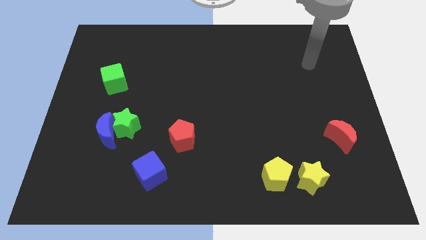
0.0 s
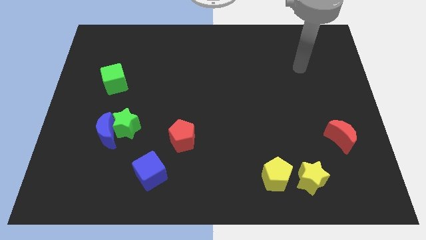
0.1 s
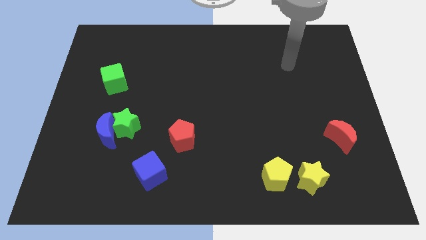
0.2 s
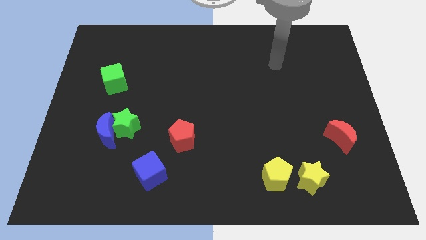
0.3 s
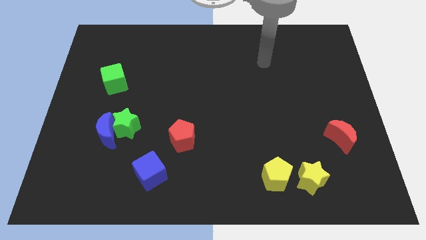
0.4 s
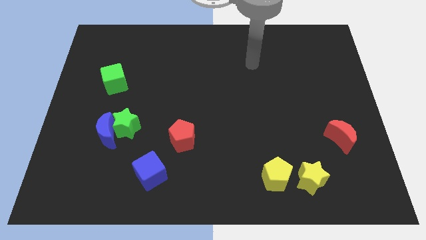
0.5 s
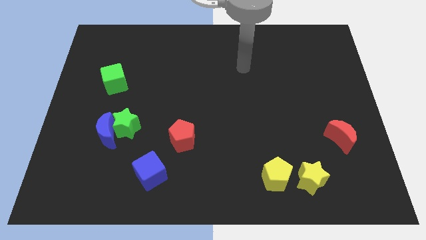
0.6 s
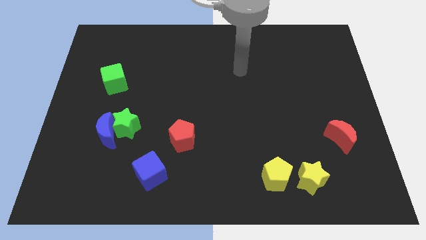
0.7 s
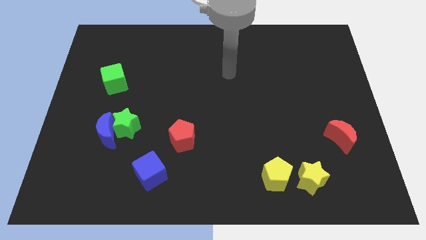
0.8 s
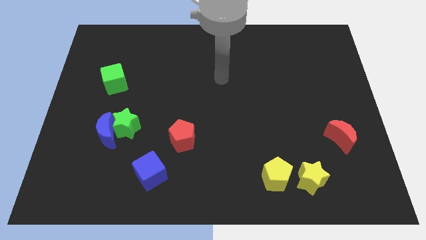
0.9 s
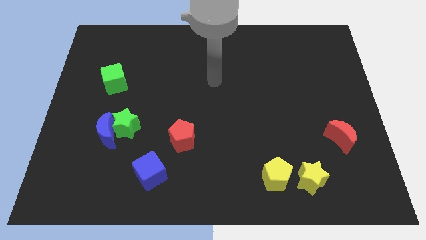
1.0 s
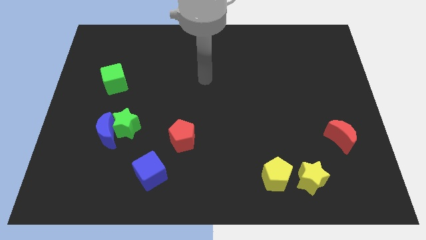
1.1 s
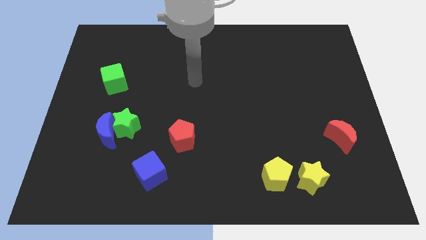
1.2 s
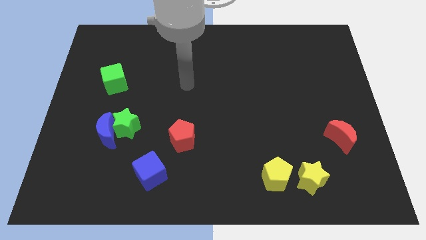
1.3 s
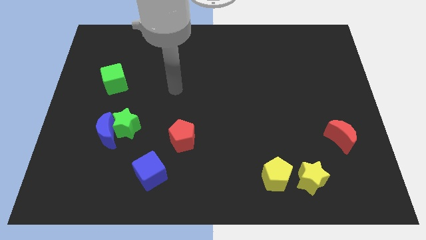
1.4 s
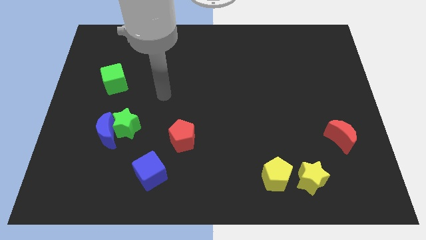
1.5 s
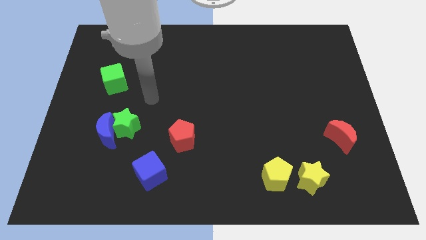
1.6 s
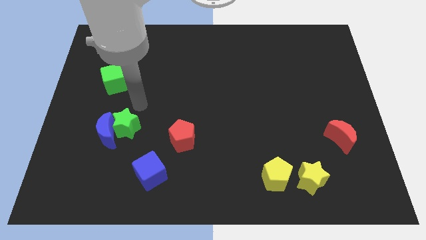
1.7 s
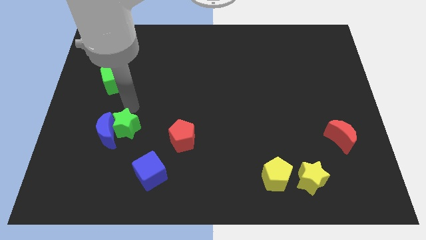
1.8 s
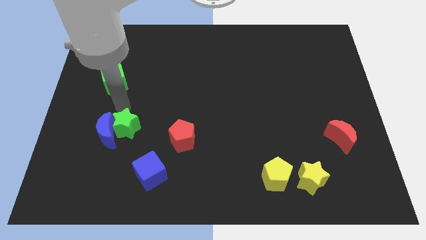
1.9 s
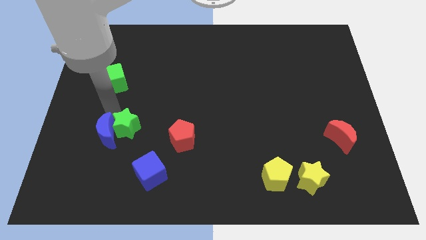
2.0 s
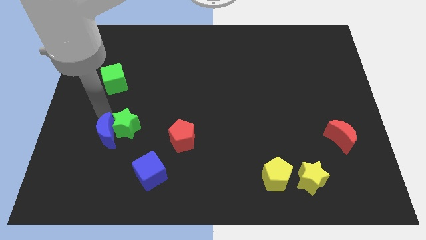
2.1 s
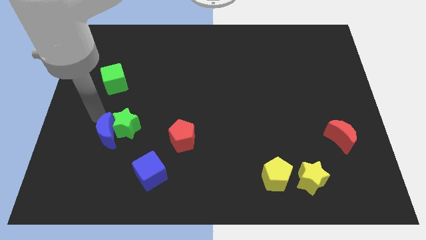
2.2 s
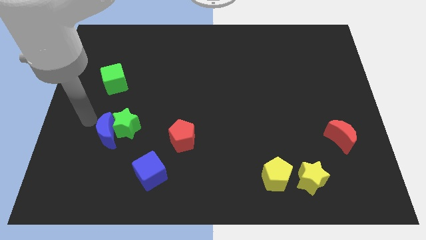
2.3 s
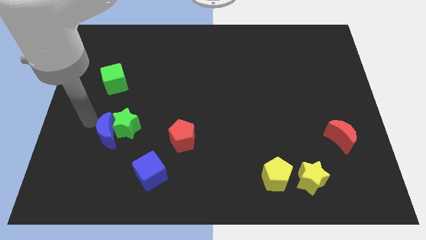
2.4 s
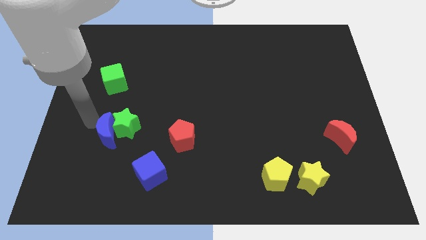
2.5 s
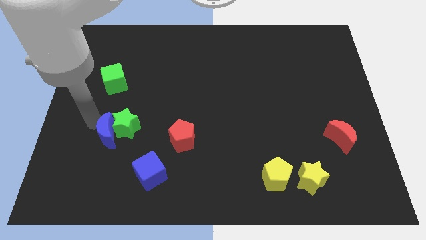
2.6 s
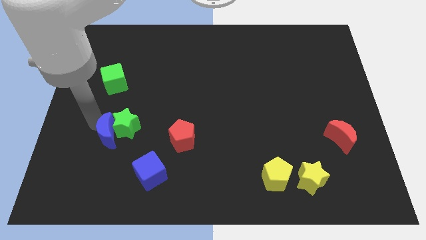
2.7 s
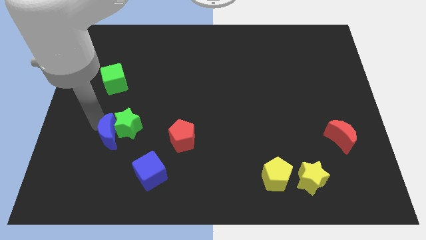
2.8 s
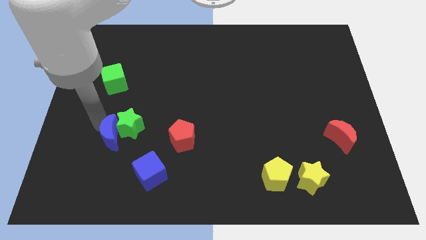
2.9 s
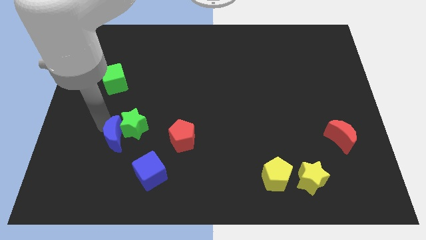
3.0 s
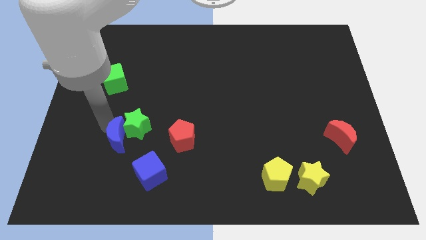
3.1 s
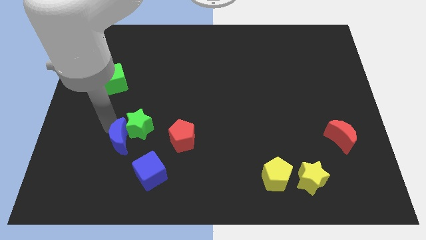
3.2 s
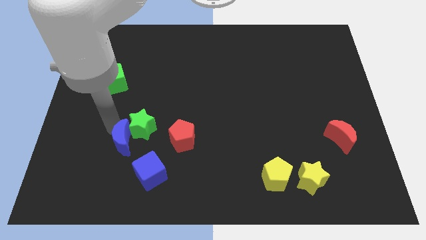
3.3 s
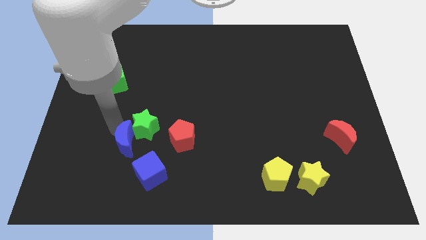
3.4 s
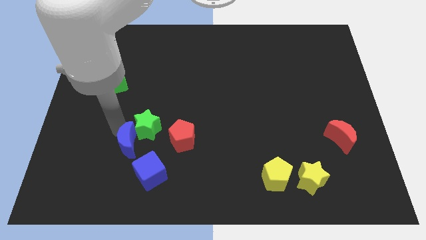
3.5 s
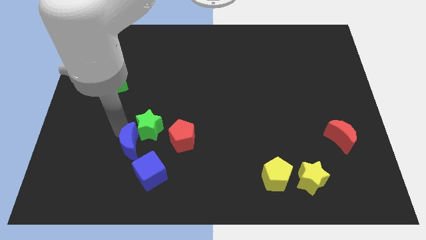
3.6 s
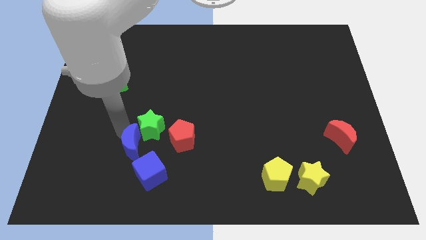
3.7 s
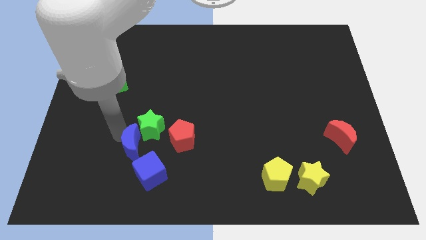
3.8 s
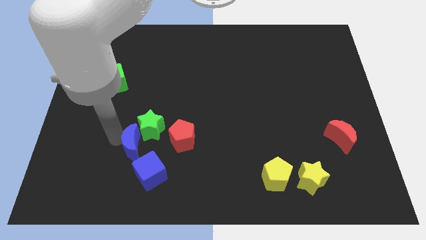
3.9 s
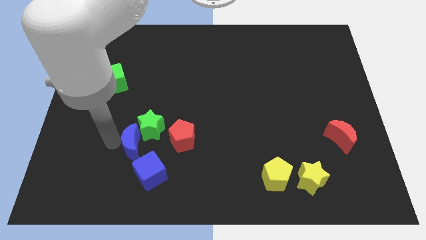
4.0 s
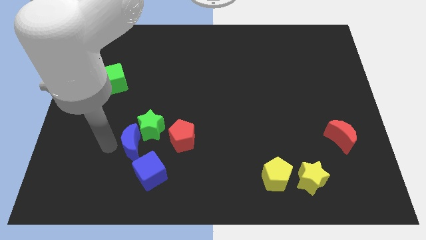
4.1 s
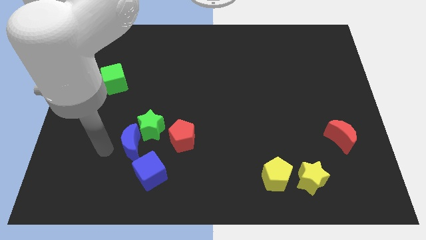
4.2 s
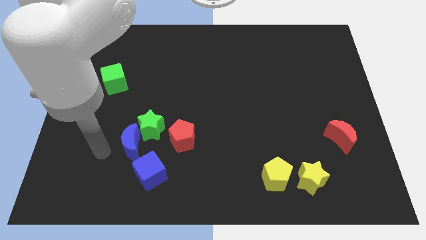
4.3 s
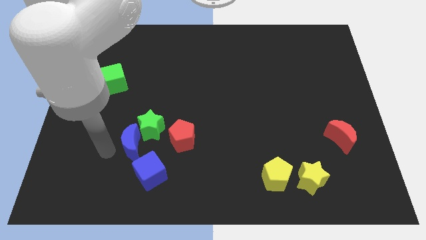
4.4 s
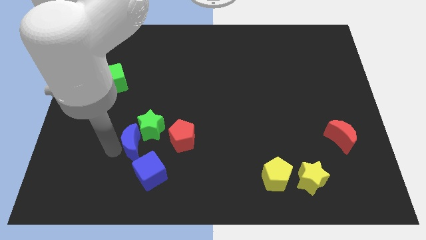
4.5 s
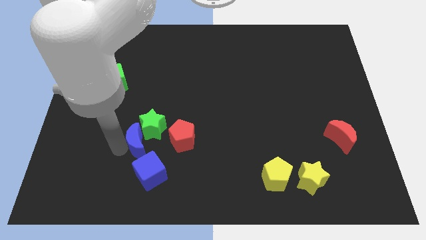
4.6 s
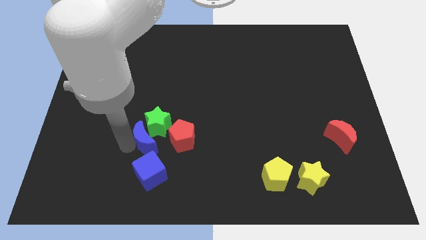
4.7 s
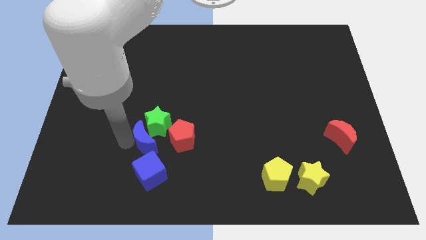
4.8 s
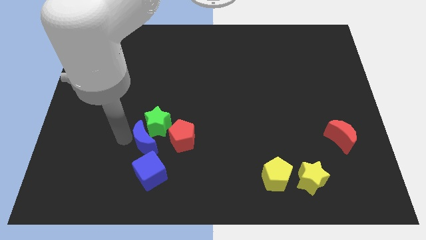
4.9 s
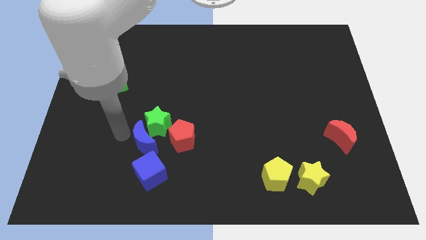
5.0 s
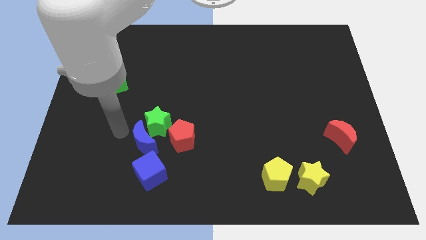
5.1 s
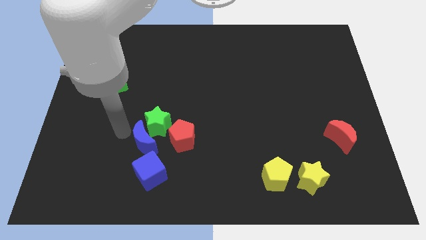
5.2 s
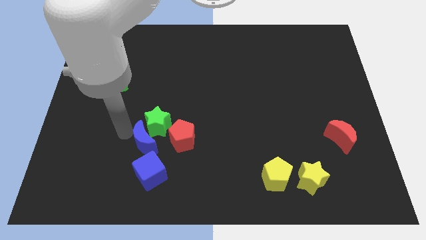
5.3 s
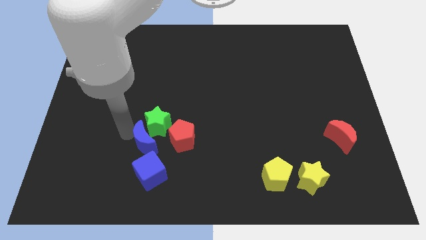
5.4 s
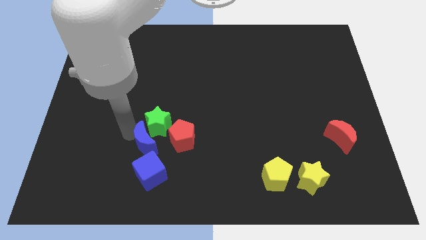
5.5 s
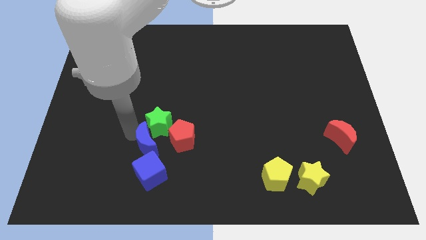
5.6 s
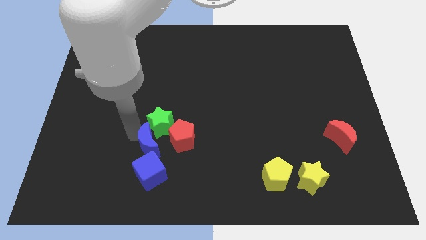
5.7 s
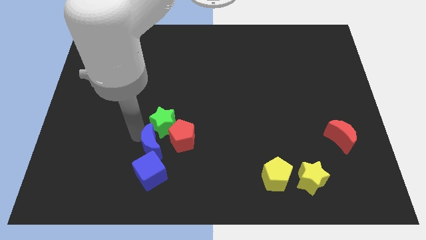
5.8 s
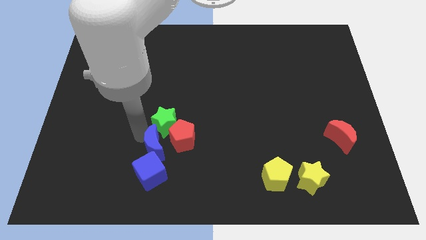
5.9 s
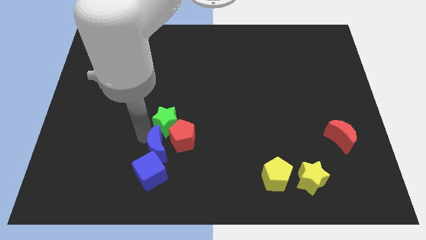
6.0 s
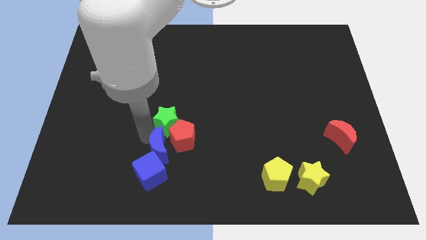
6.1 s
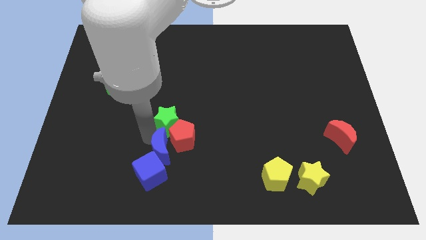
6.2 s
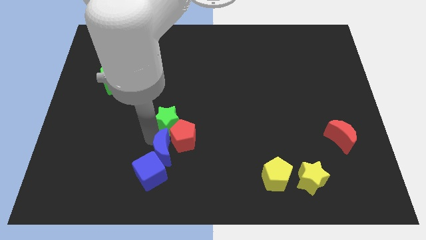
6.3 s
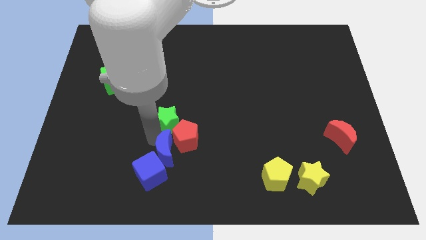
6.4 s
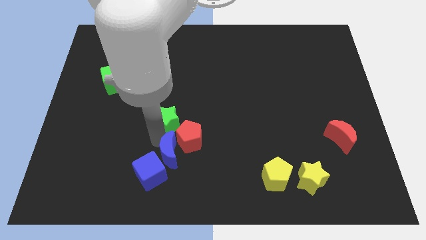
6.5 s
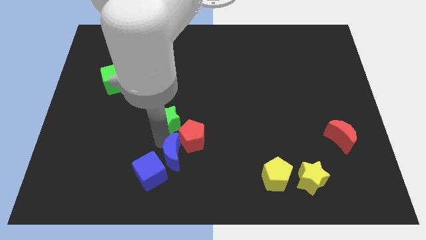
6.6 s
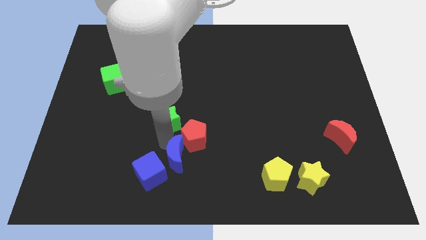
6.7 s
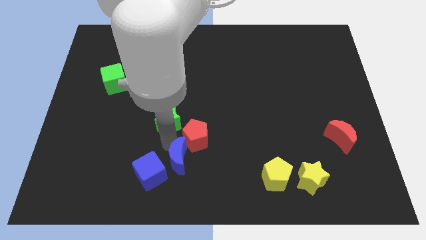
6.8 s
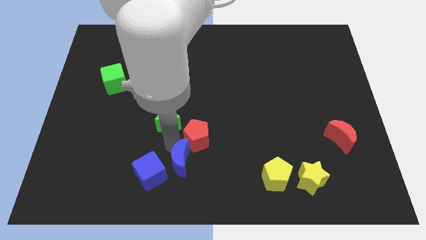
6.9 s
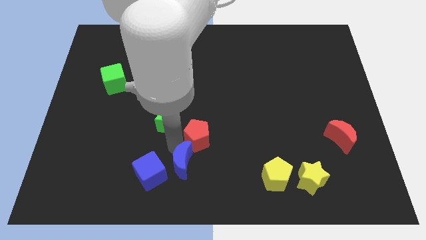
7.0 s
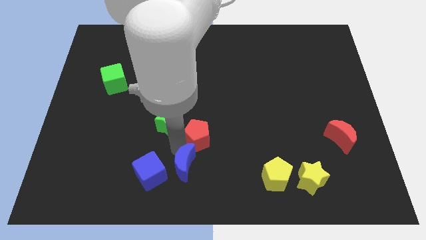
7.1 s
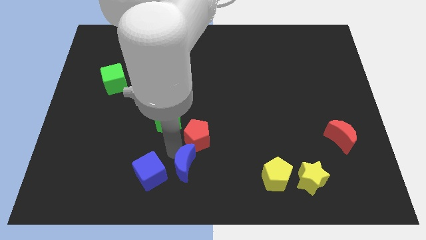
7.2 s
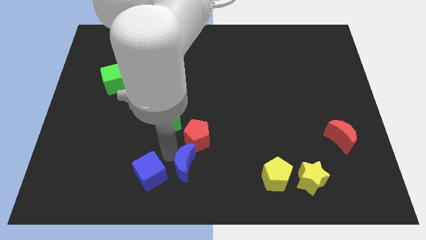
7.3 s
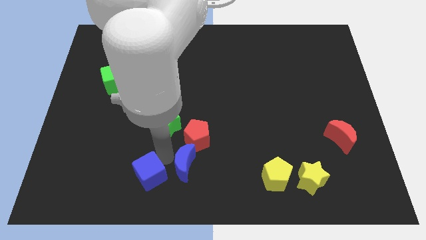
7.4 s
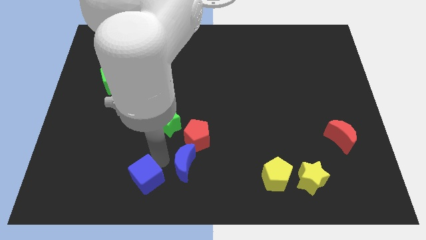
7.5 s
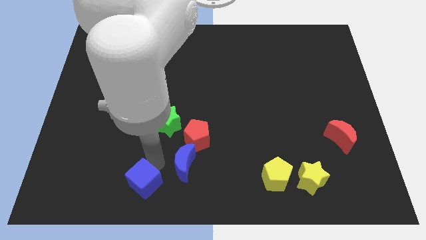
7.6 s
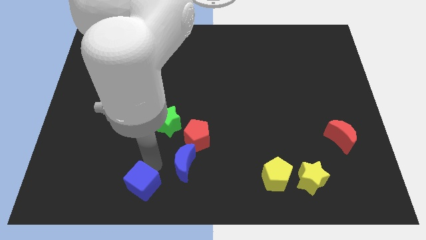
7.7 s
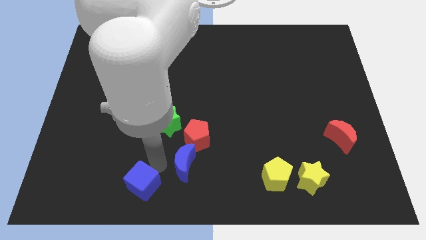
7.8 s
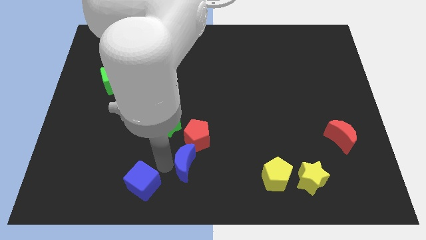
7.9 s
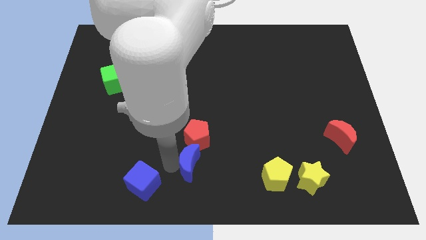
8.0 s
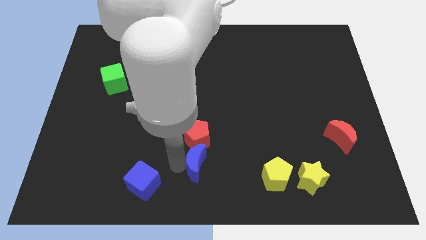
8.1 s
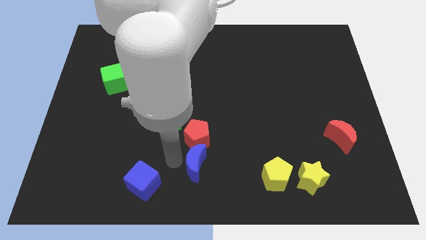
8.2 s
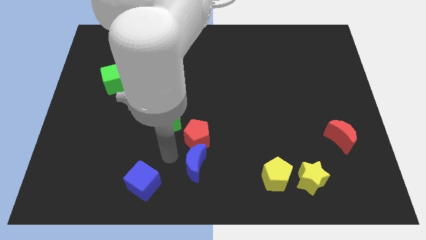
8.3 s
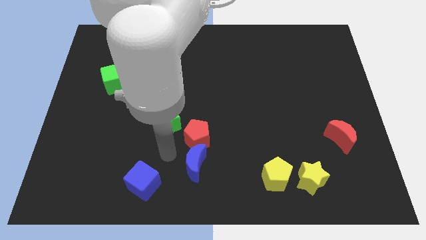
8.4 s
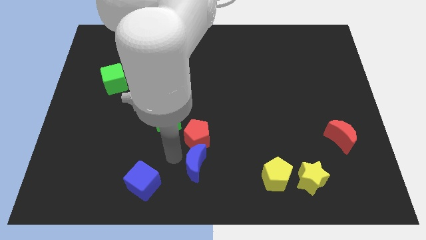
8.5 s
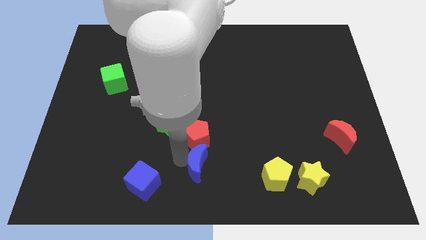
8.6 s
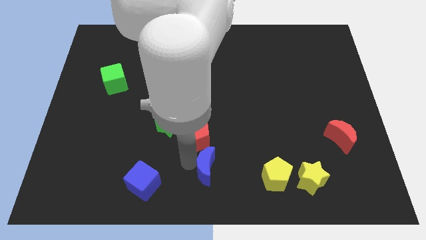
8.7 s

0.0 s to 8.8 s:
put the blue moon left of the yellow pentagon
